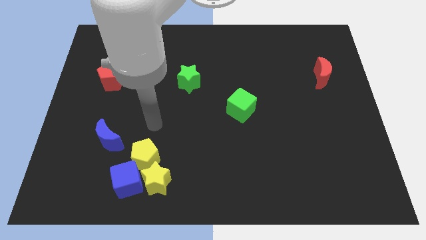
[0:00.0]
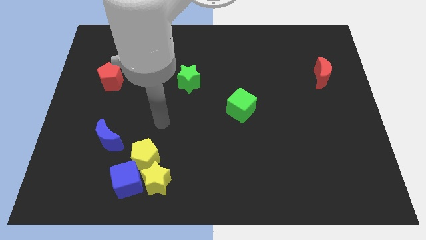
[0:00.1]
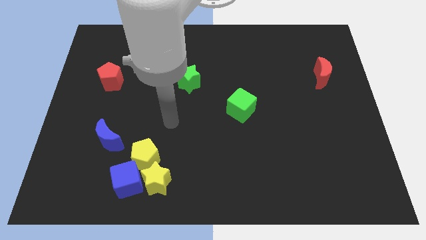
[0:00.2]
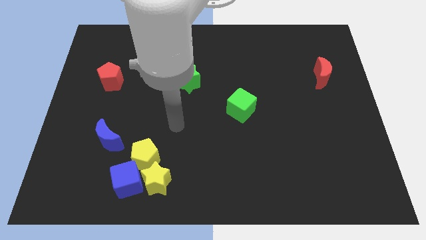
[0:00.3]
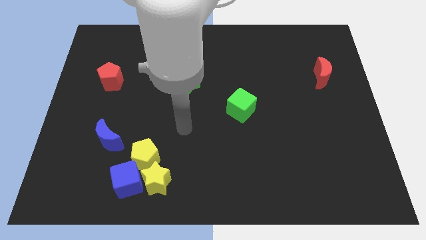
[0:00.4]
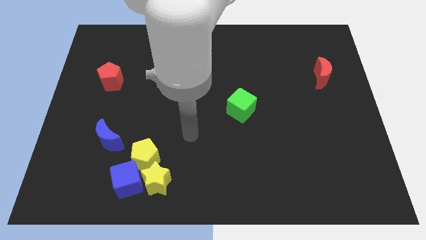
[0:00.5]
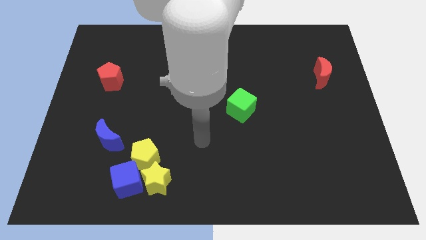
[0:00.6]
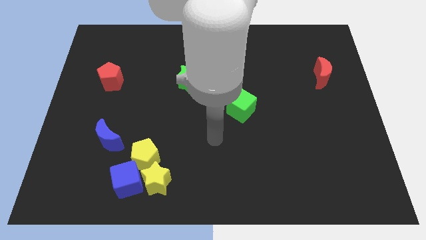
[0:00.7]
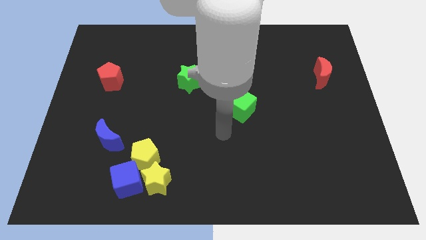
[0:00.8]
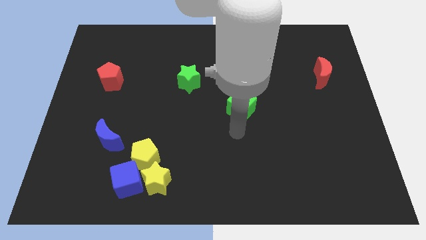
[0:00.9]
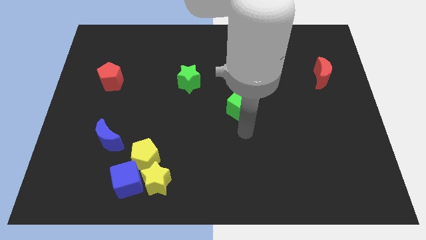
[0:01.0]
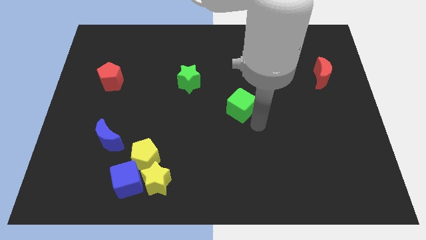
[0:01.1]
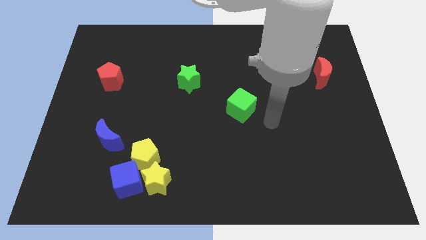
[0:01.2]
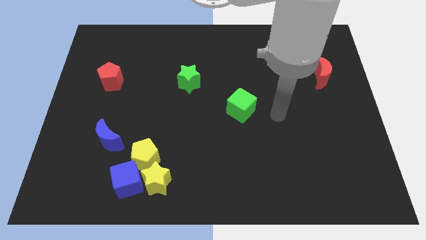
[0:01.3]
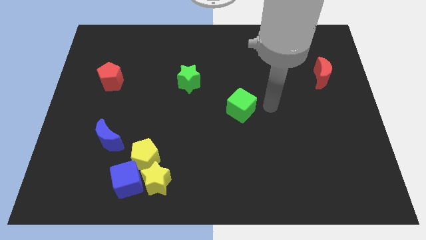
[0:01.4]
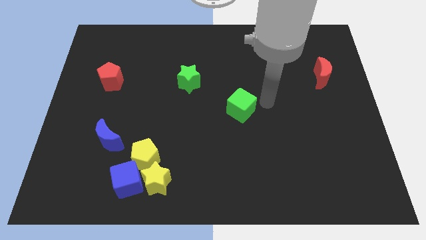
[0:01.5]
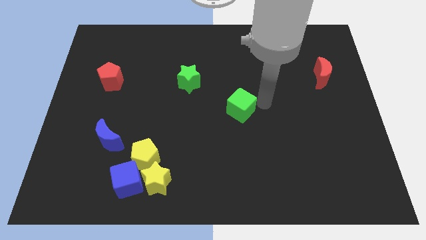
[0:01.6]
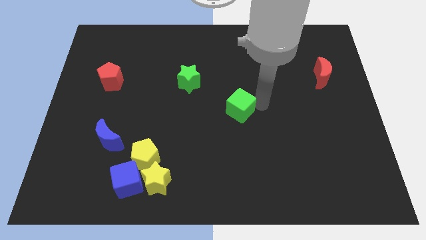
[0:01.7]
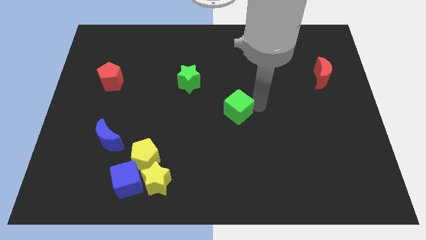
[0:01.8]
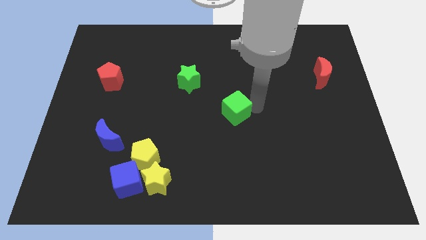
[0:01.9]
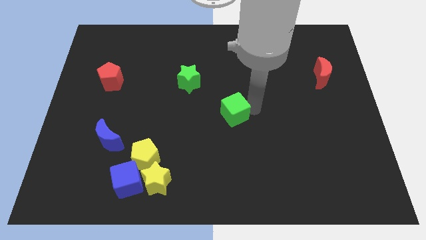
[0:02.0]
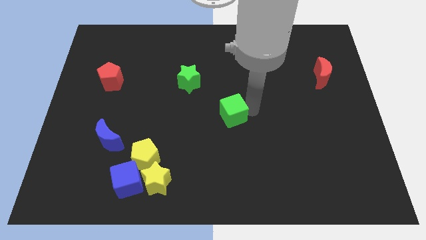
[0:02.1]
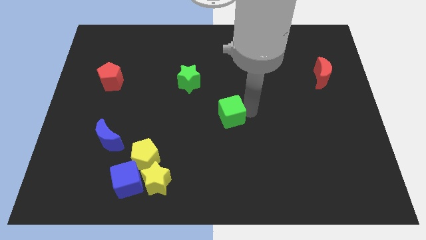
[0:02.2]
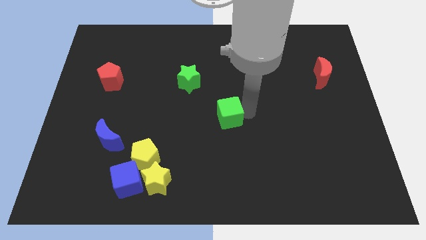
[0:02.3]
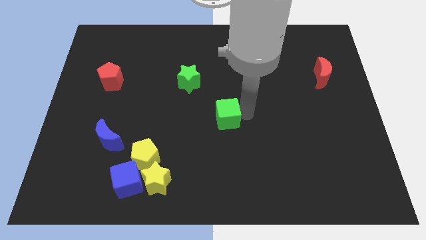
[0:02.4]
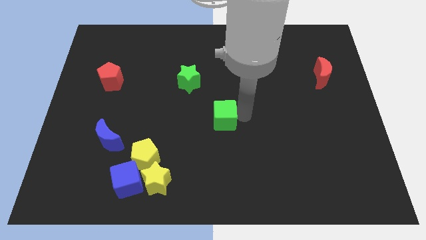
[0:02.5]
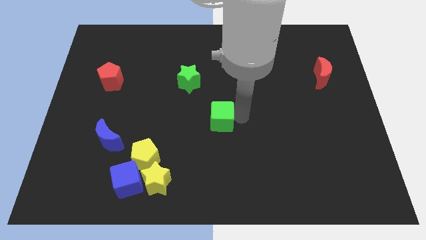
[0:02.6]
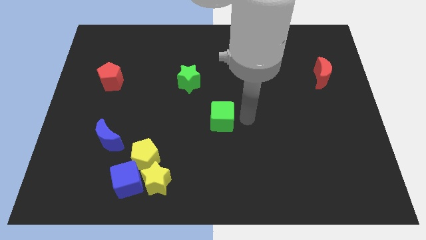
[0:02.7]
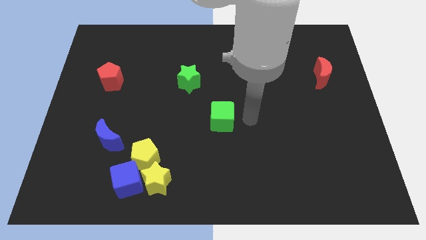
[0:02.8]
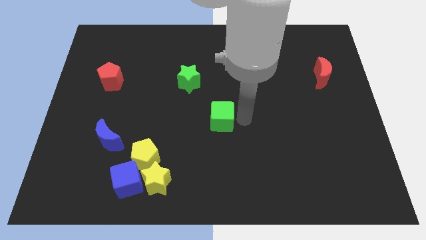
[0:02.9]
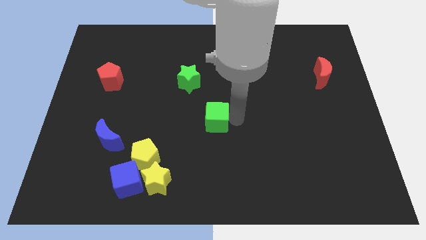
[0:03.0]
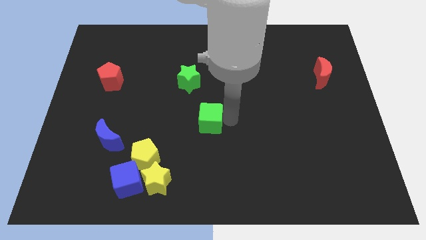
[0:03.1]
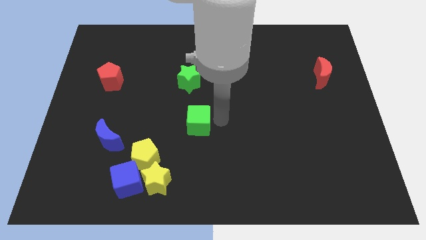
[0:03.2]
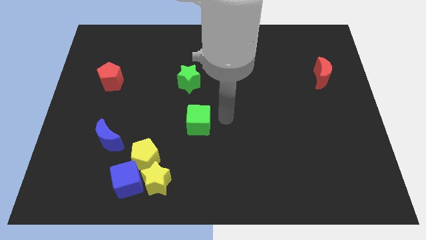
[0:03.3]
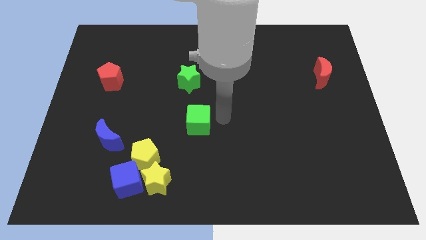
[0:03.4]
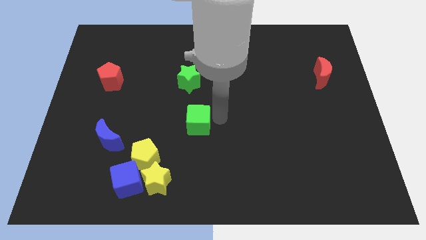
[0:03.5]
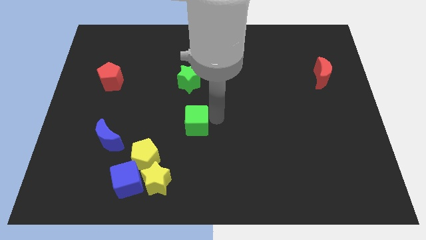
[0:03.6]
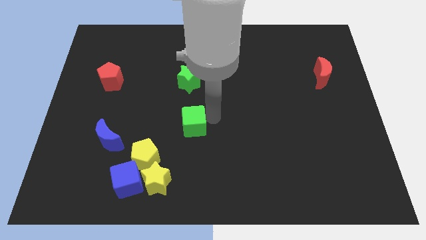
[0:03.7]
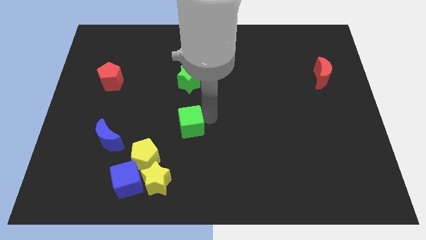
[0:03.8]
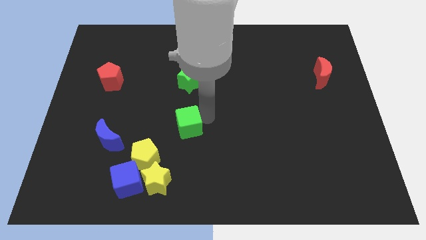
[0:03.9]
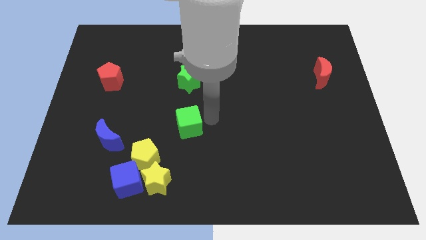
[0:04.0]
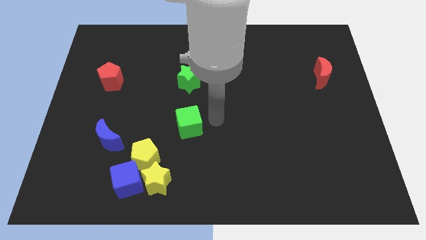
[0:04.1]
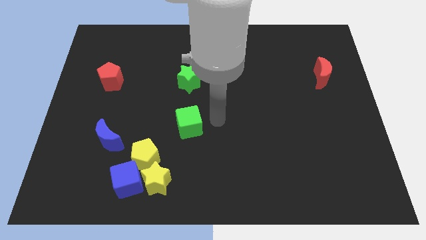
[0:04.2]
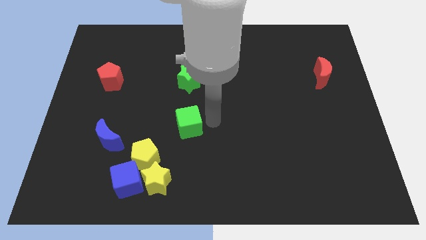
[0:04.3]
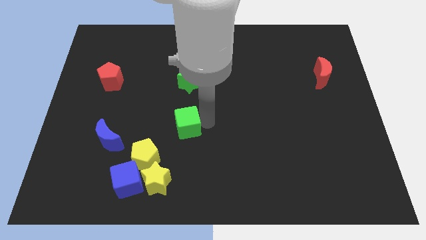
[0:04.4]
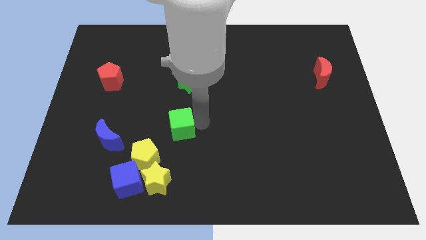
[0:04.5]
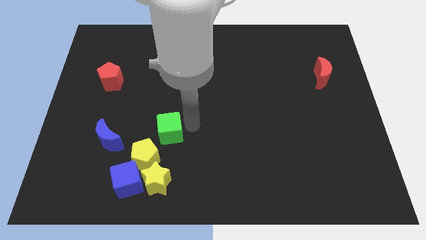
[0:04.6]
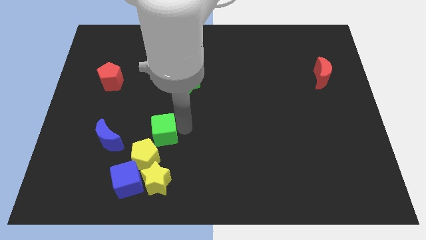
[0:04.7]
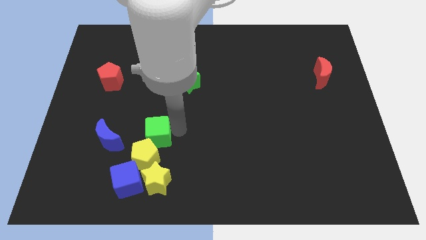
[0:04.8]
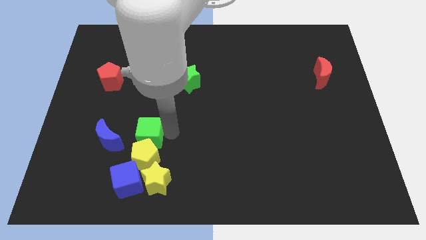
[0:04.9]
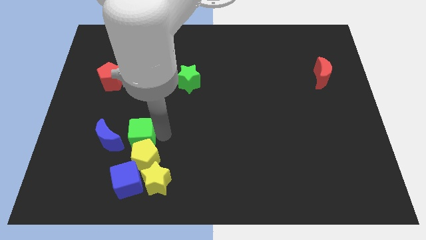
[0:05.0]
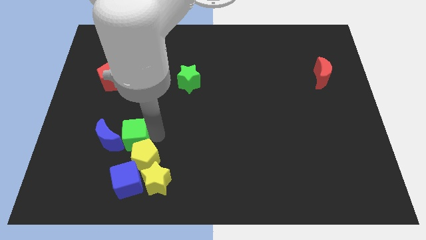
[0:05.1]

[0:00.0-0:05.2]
put the green cube next to the blue moon

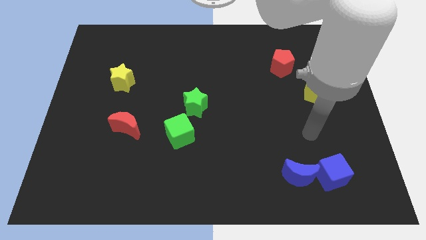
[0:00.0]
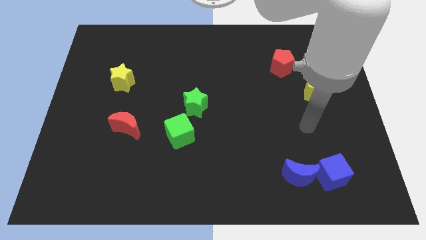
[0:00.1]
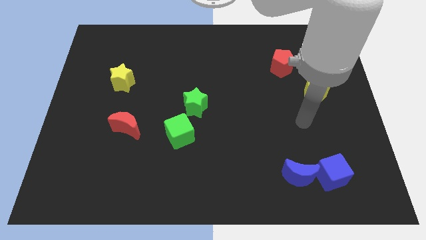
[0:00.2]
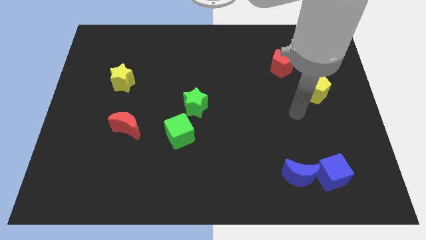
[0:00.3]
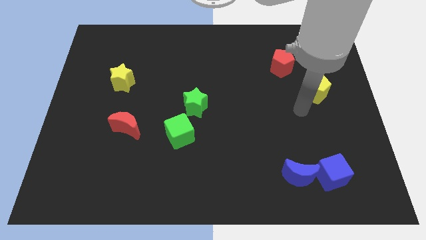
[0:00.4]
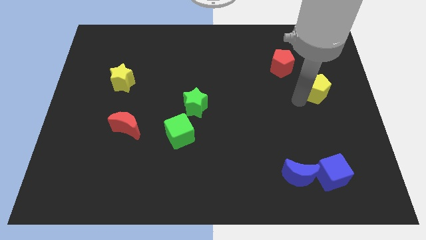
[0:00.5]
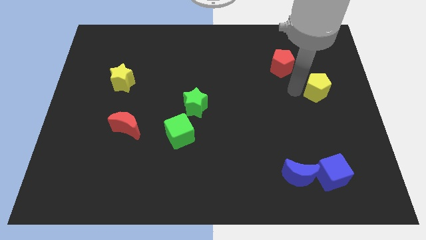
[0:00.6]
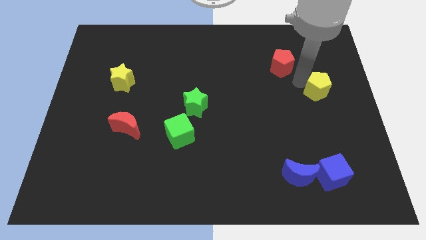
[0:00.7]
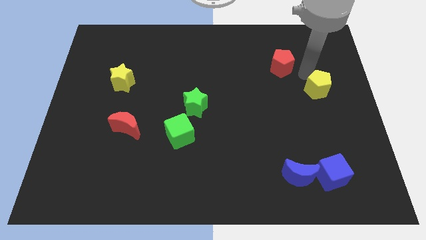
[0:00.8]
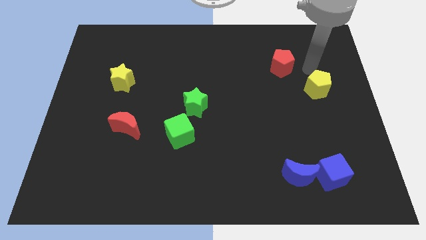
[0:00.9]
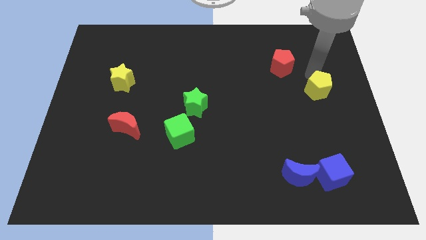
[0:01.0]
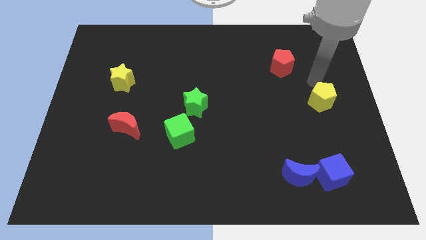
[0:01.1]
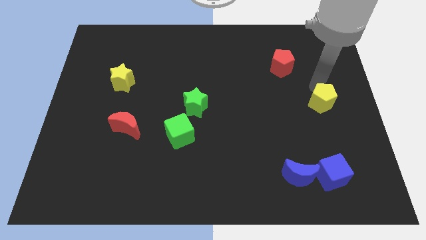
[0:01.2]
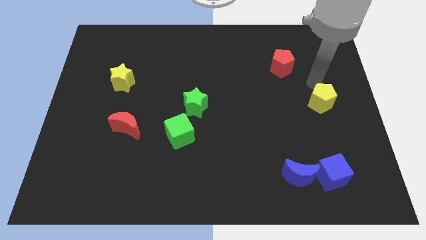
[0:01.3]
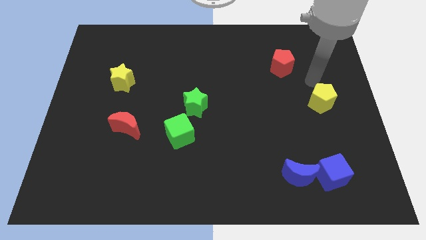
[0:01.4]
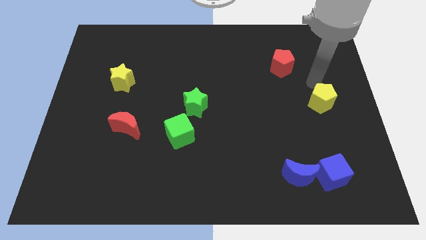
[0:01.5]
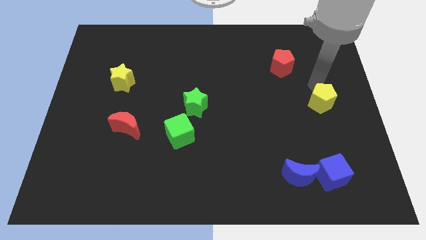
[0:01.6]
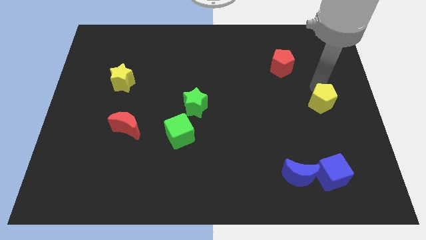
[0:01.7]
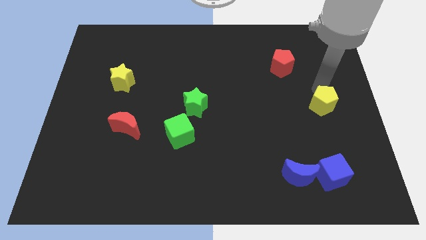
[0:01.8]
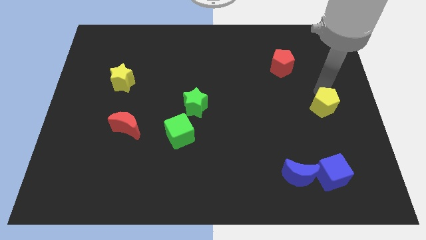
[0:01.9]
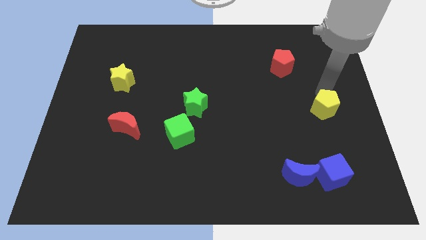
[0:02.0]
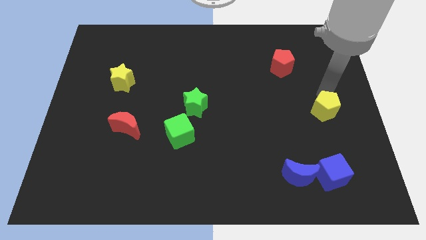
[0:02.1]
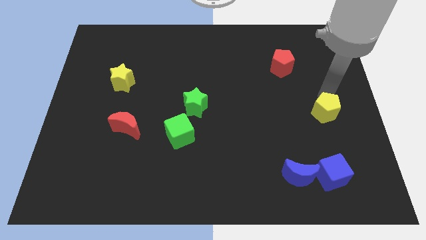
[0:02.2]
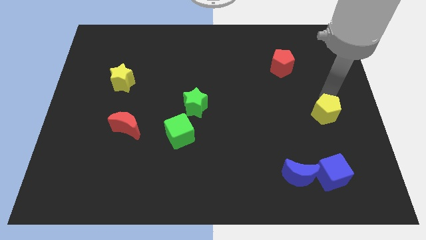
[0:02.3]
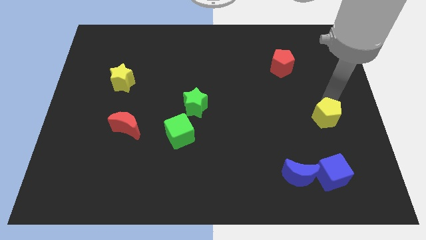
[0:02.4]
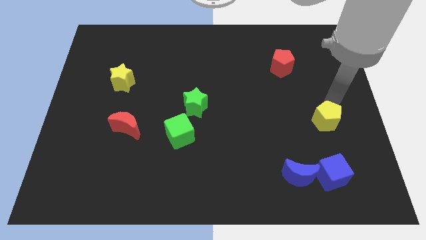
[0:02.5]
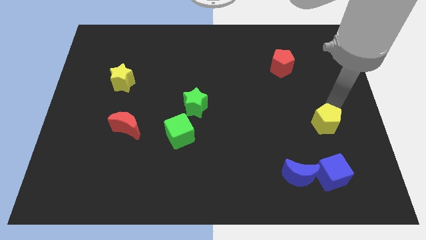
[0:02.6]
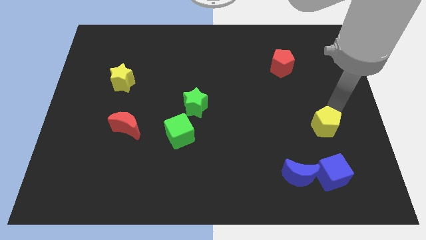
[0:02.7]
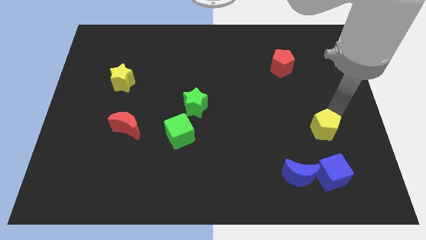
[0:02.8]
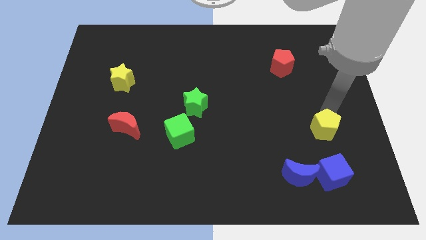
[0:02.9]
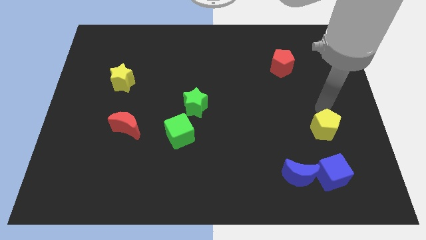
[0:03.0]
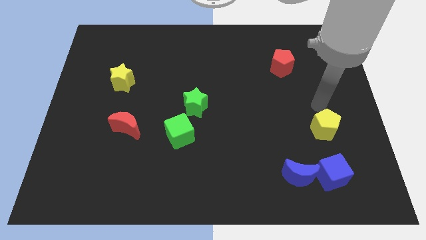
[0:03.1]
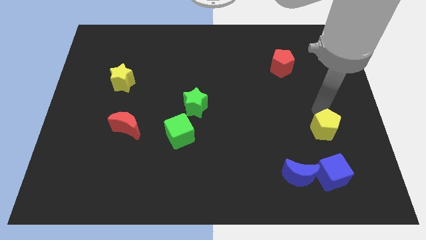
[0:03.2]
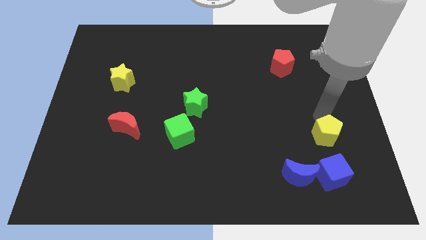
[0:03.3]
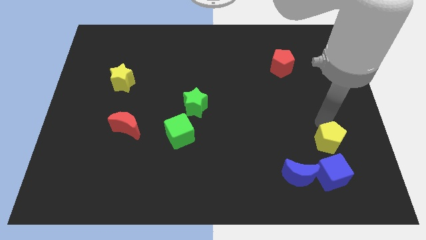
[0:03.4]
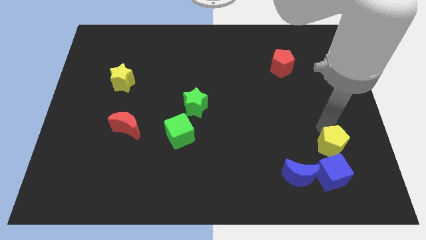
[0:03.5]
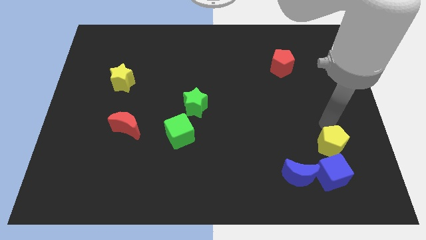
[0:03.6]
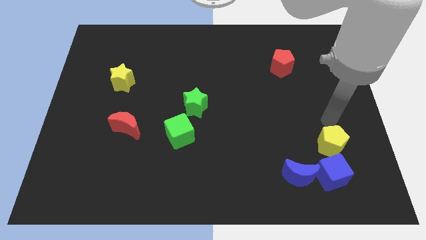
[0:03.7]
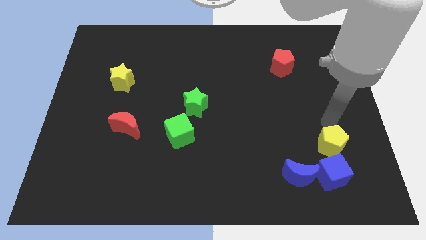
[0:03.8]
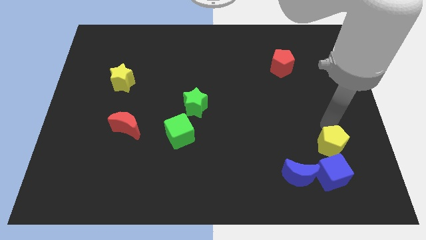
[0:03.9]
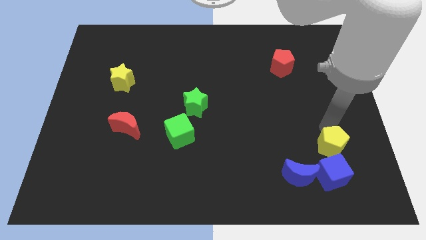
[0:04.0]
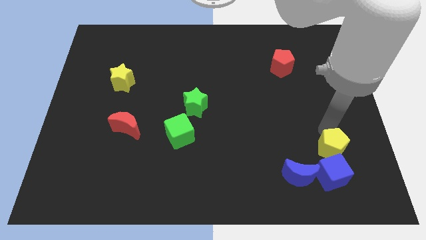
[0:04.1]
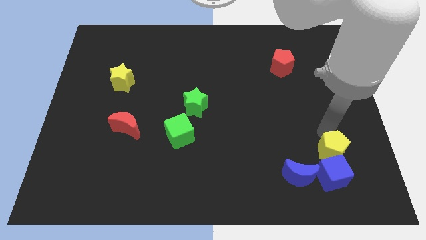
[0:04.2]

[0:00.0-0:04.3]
slide the yellow pentagon towards the blue cube
